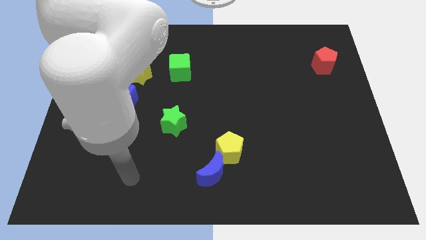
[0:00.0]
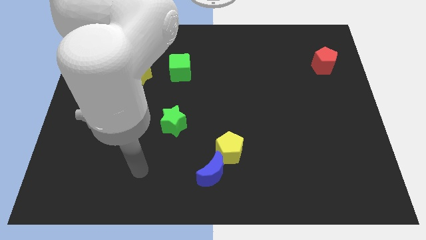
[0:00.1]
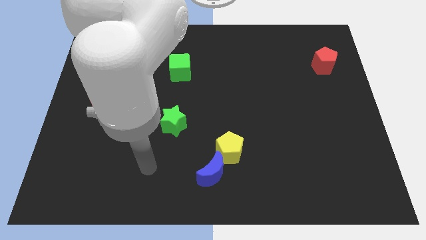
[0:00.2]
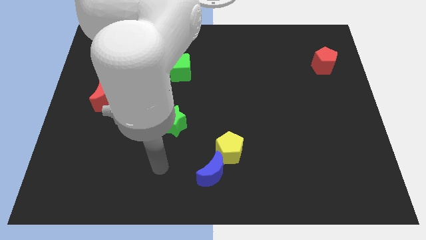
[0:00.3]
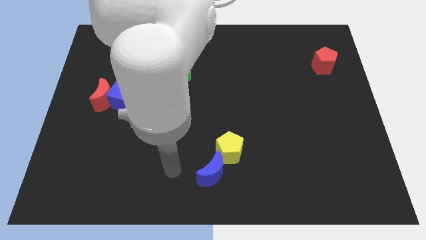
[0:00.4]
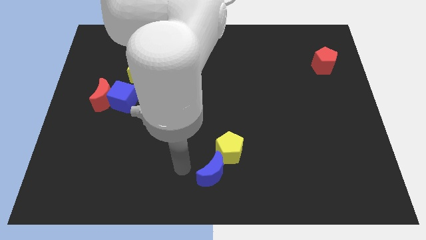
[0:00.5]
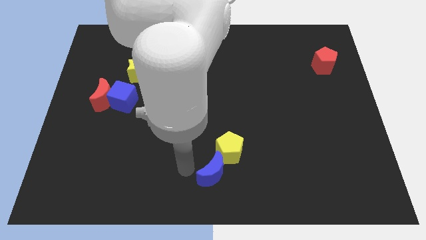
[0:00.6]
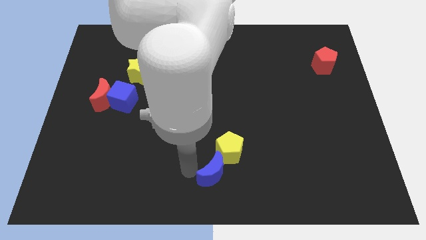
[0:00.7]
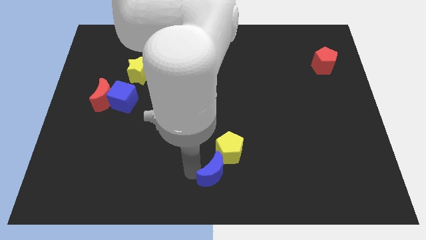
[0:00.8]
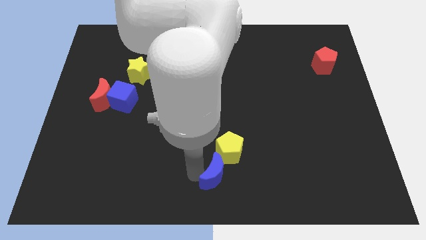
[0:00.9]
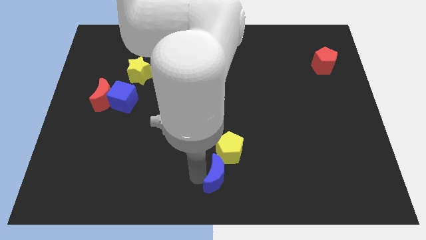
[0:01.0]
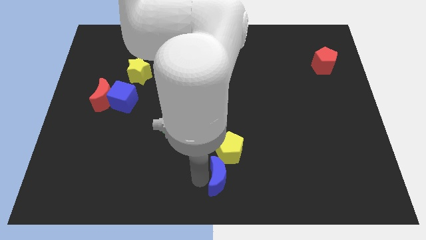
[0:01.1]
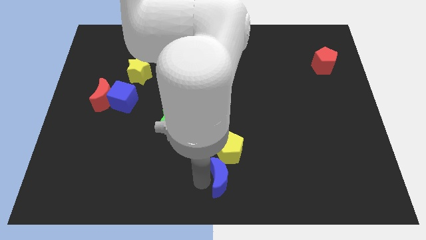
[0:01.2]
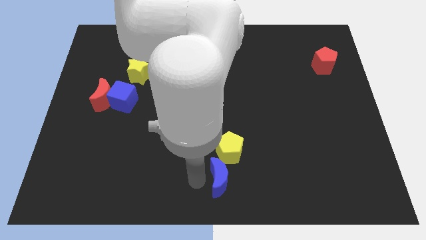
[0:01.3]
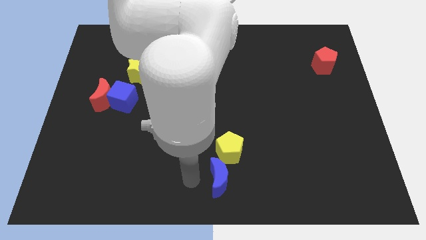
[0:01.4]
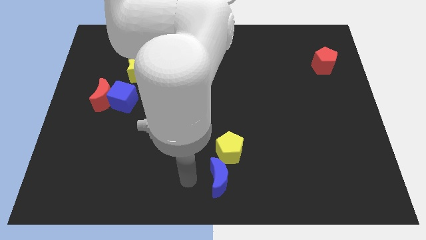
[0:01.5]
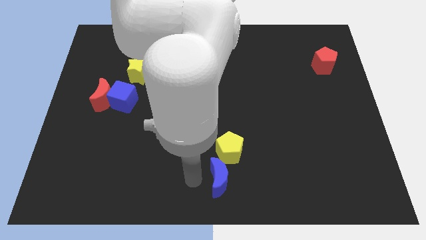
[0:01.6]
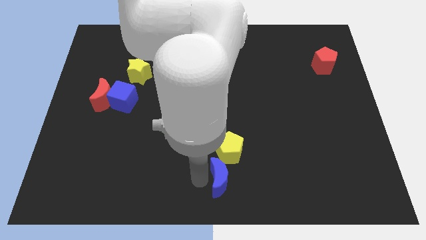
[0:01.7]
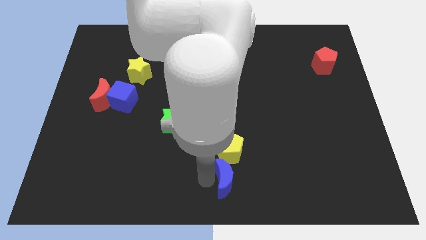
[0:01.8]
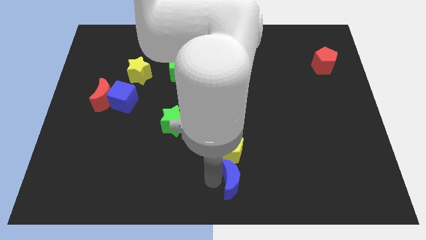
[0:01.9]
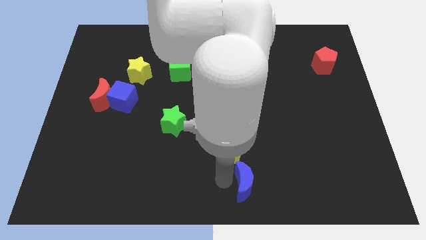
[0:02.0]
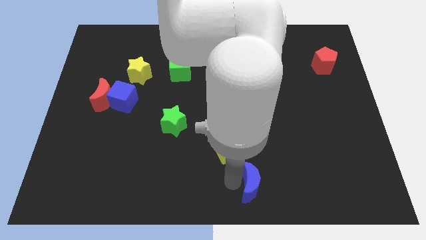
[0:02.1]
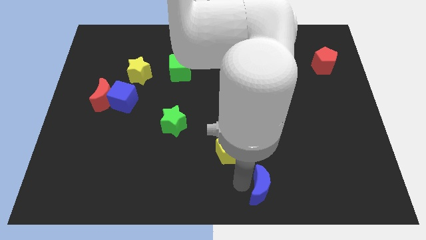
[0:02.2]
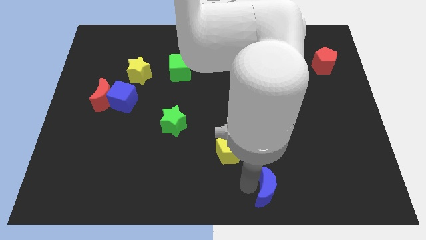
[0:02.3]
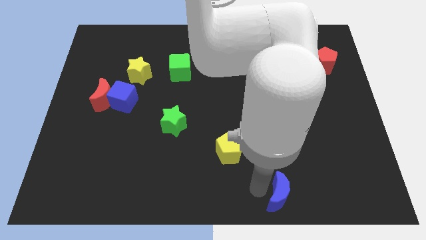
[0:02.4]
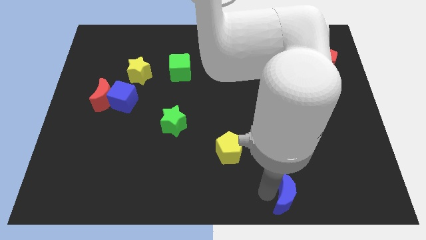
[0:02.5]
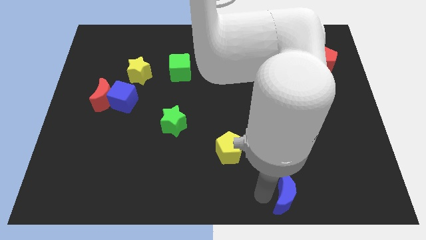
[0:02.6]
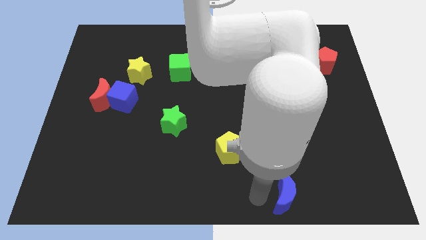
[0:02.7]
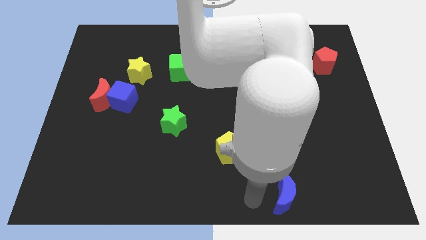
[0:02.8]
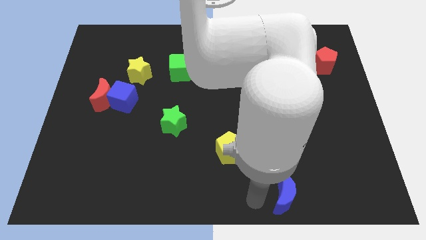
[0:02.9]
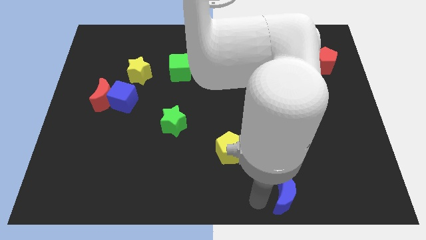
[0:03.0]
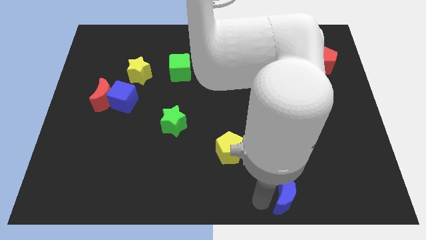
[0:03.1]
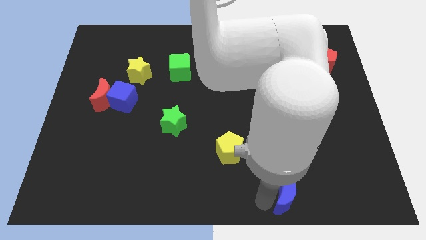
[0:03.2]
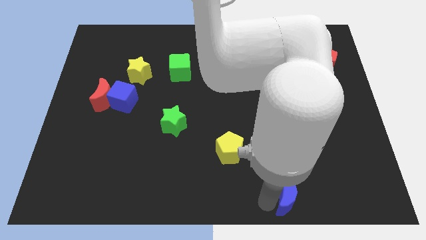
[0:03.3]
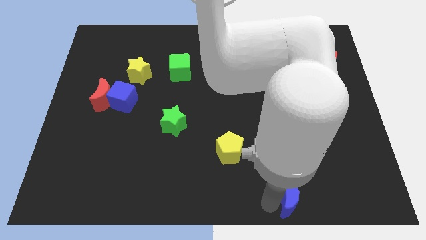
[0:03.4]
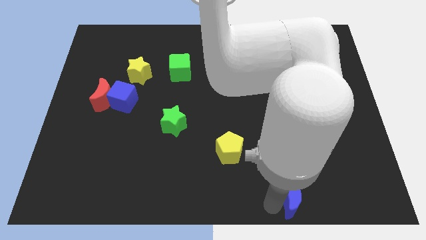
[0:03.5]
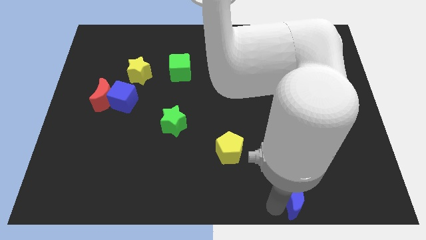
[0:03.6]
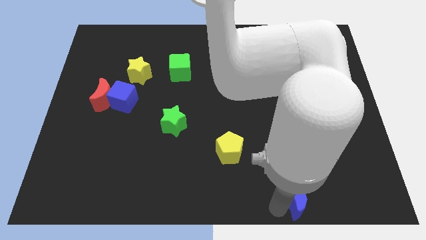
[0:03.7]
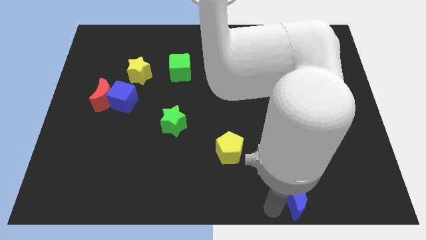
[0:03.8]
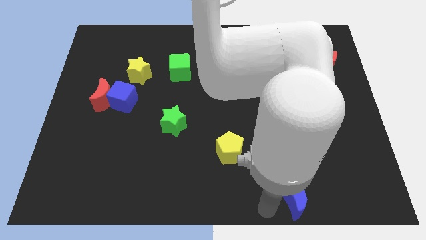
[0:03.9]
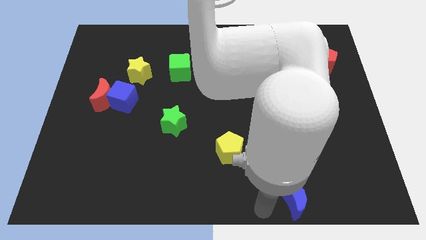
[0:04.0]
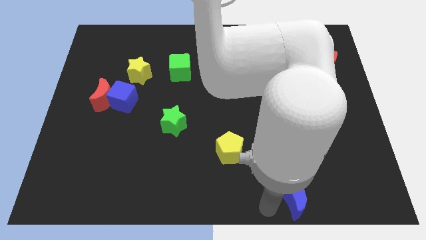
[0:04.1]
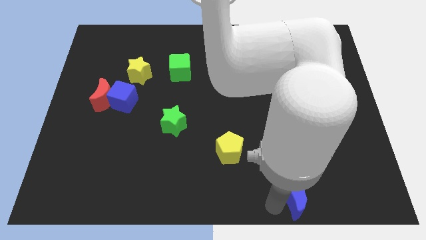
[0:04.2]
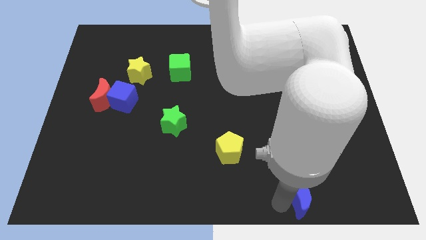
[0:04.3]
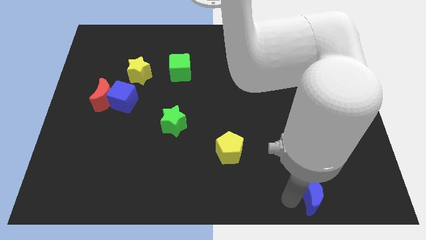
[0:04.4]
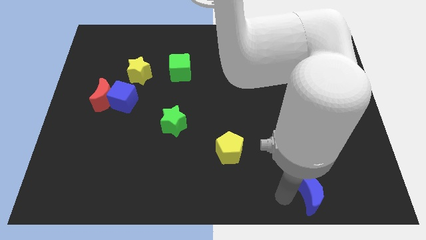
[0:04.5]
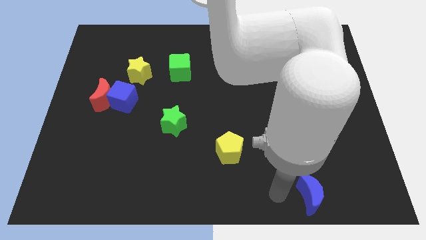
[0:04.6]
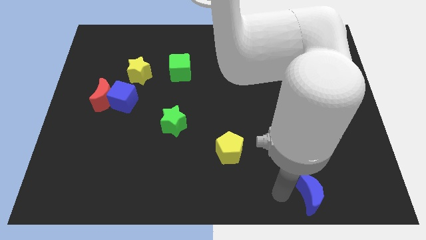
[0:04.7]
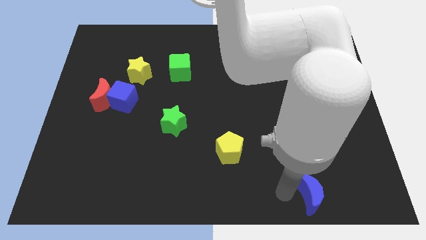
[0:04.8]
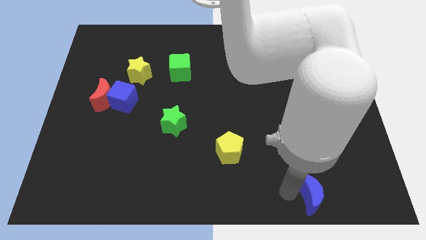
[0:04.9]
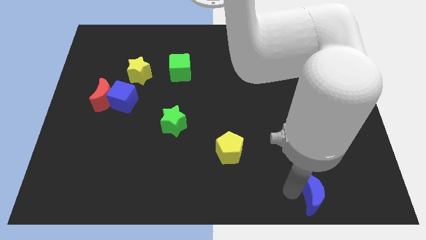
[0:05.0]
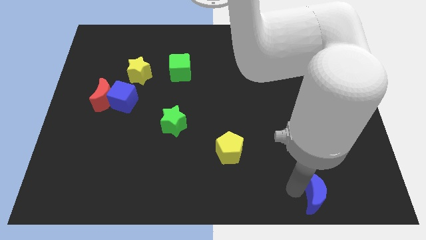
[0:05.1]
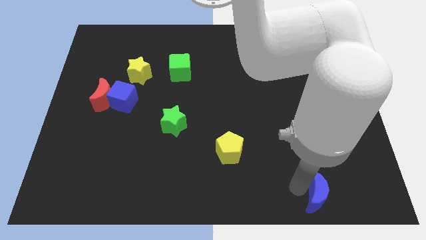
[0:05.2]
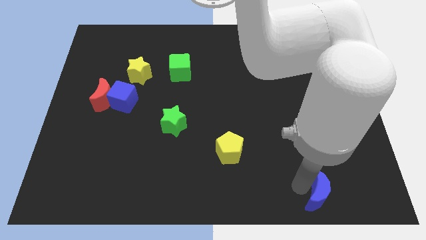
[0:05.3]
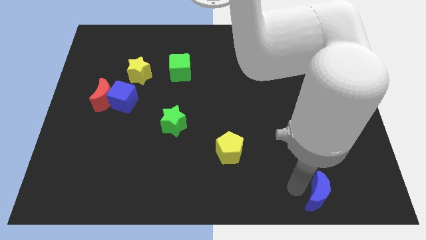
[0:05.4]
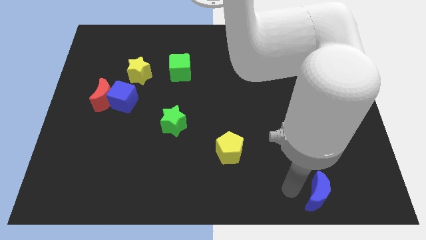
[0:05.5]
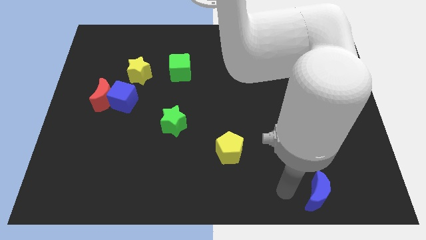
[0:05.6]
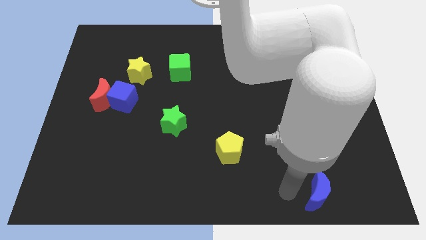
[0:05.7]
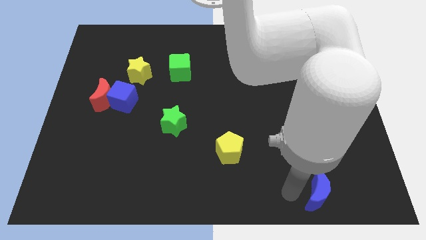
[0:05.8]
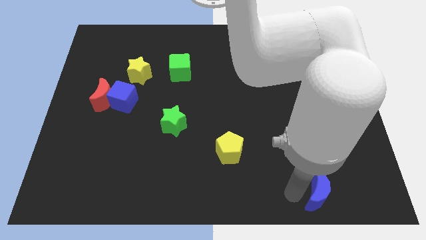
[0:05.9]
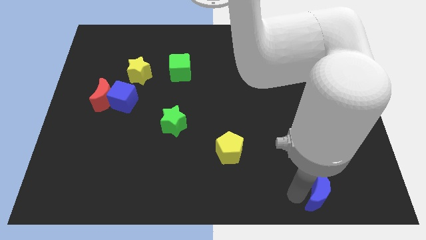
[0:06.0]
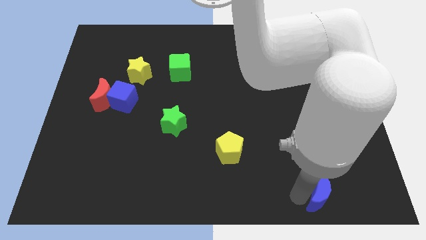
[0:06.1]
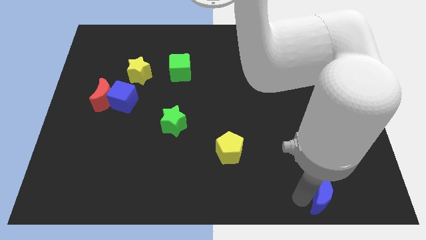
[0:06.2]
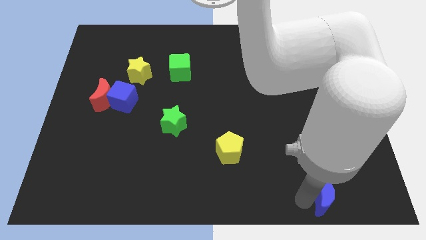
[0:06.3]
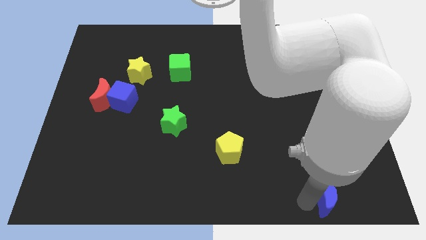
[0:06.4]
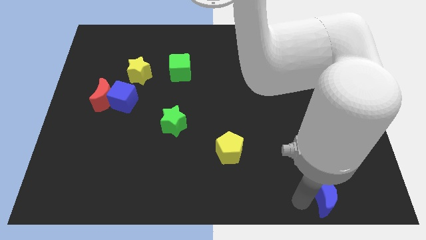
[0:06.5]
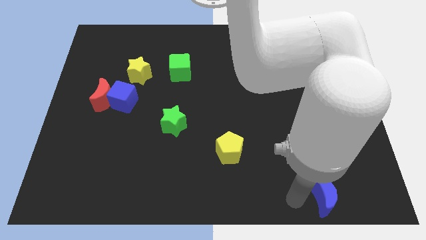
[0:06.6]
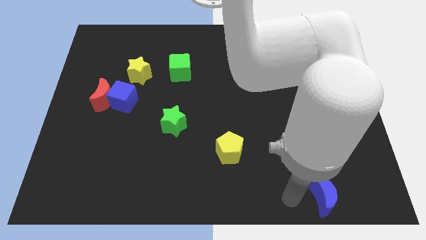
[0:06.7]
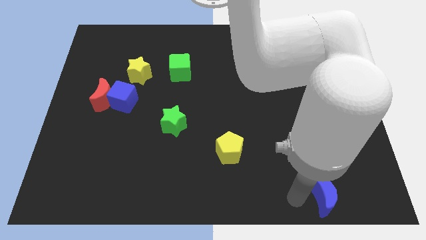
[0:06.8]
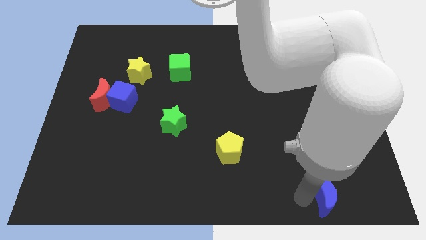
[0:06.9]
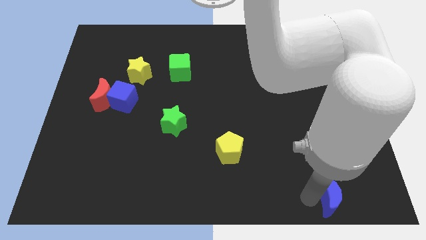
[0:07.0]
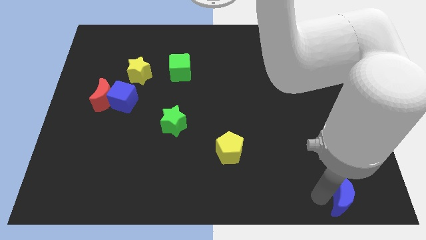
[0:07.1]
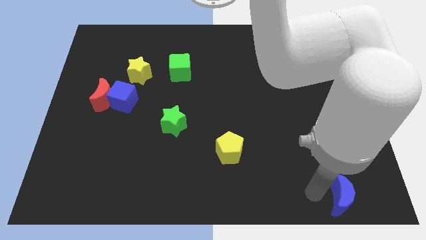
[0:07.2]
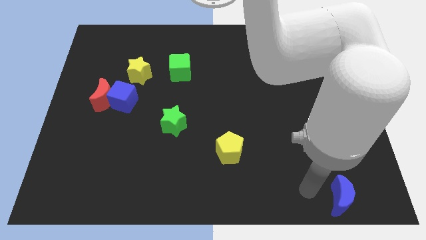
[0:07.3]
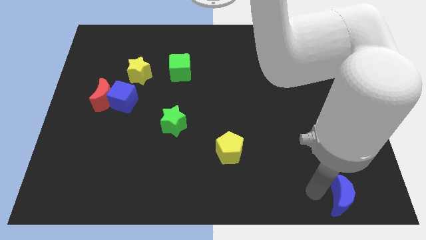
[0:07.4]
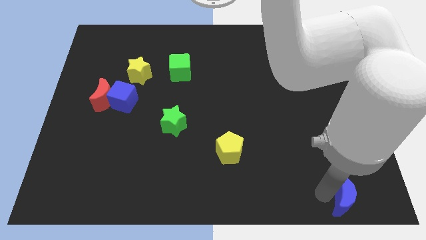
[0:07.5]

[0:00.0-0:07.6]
push the blue moon to the bottom right
